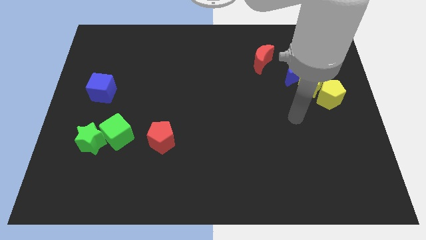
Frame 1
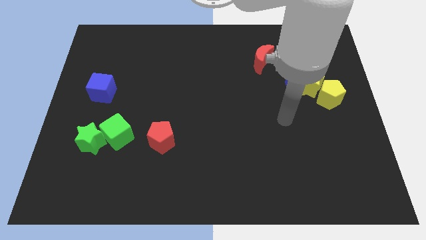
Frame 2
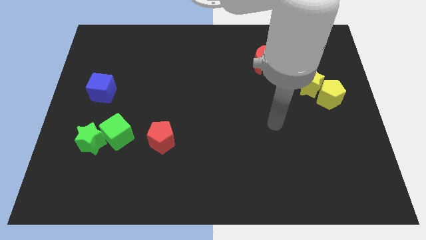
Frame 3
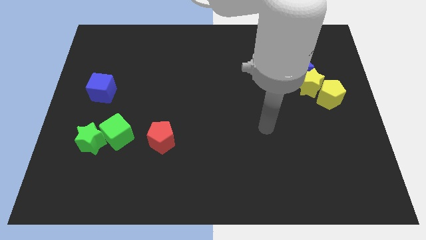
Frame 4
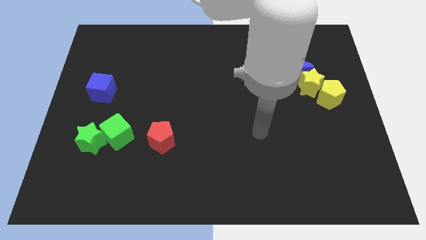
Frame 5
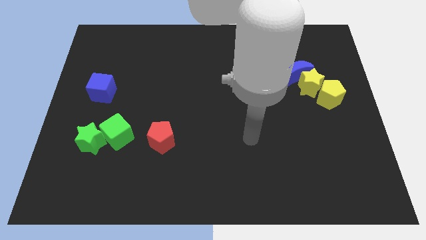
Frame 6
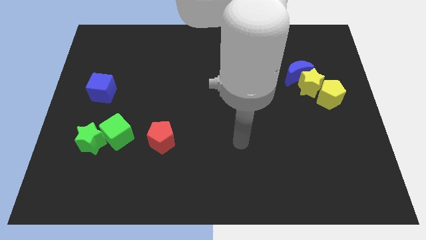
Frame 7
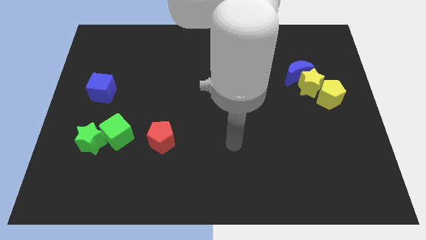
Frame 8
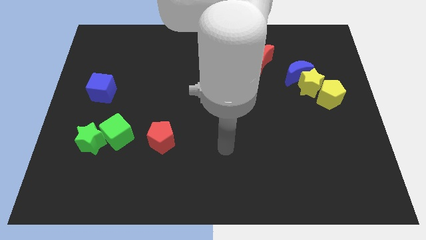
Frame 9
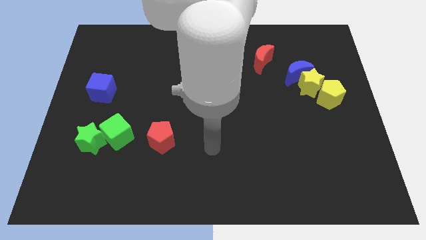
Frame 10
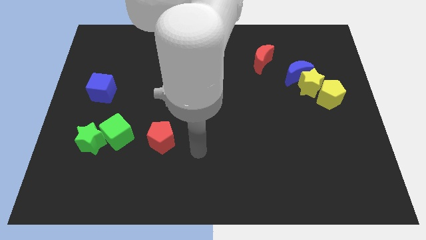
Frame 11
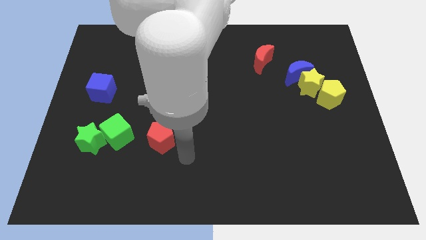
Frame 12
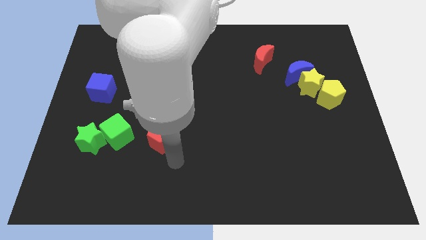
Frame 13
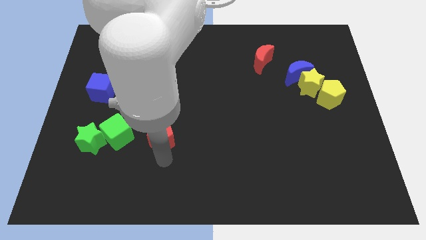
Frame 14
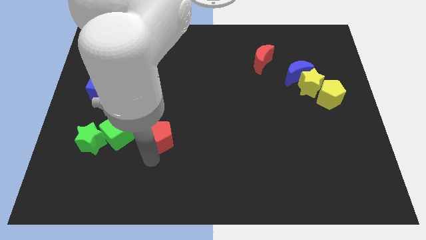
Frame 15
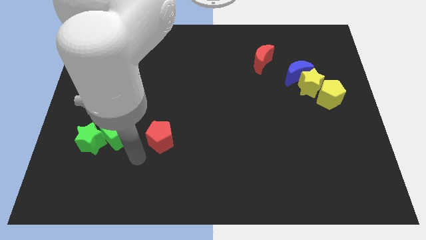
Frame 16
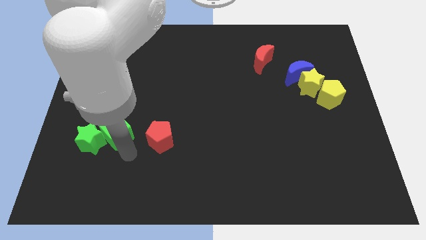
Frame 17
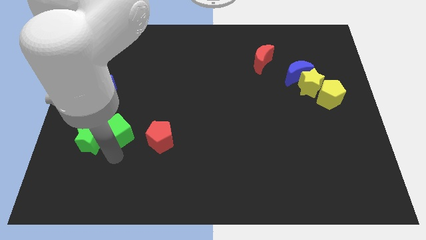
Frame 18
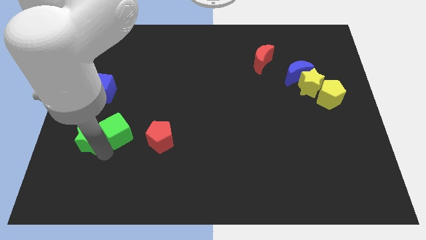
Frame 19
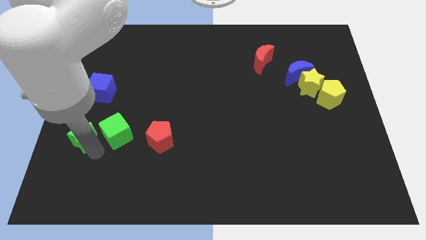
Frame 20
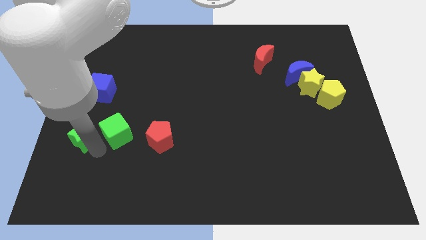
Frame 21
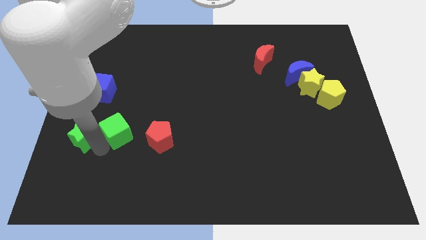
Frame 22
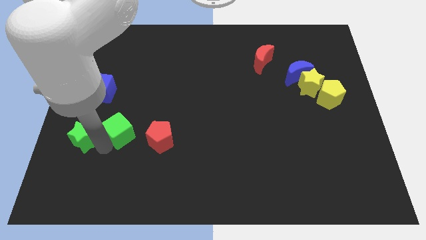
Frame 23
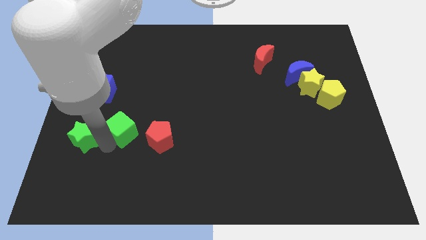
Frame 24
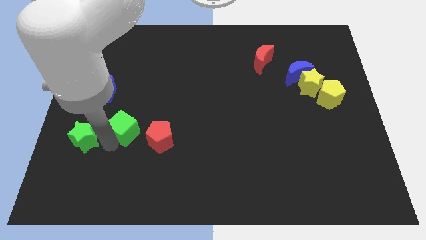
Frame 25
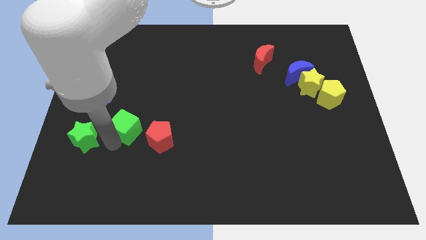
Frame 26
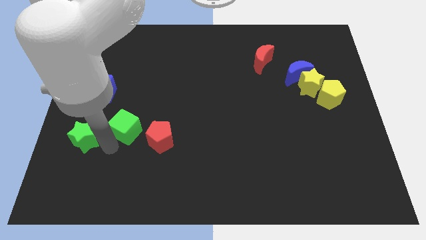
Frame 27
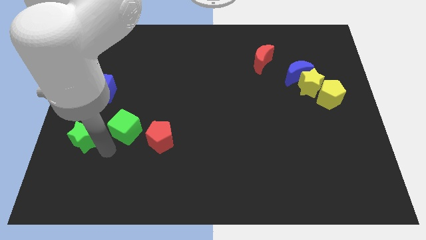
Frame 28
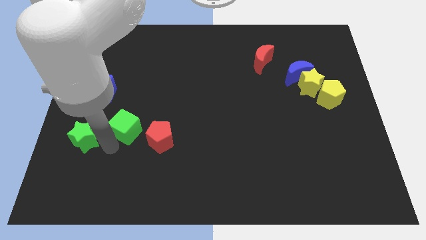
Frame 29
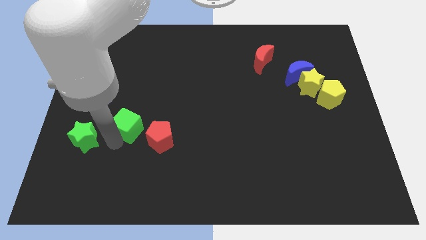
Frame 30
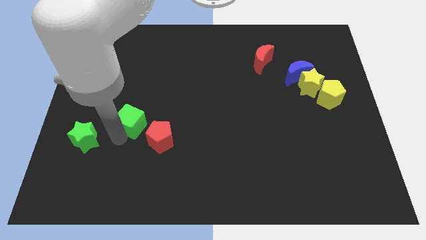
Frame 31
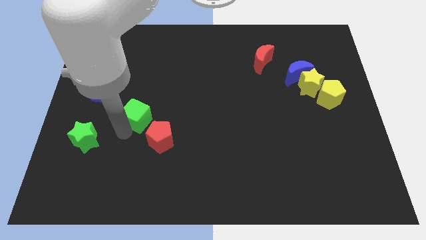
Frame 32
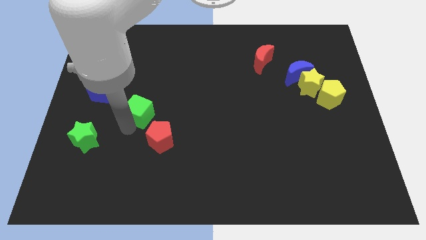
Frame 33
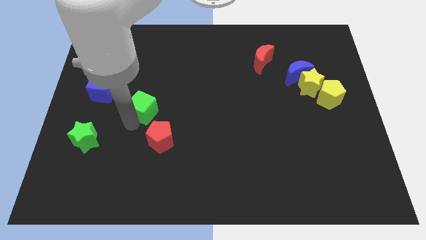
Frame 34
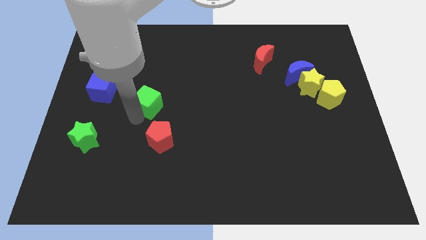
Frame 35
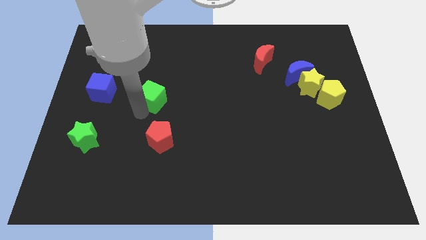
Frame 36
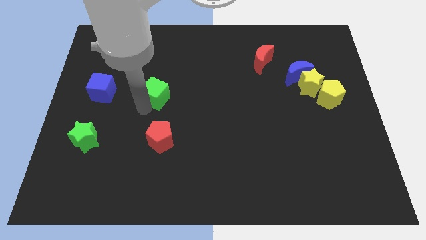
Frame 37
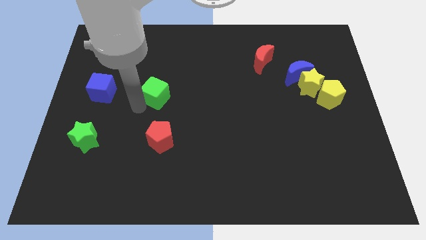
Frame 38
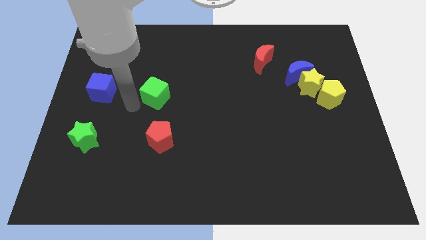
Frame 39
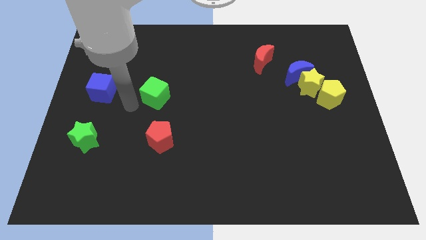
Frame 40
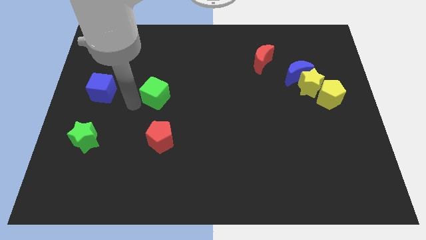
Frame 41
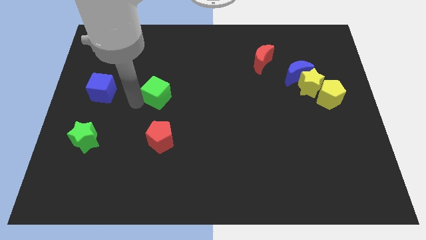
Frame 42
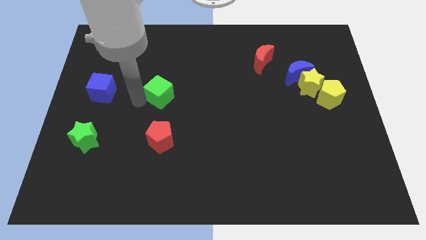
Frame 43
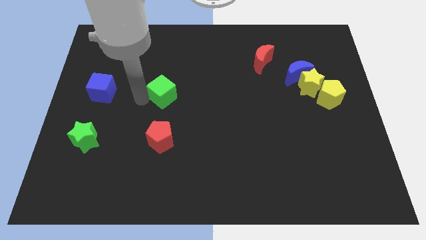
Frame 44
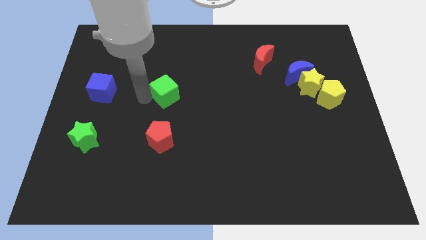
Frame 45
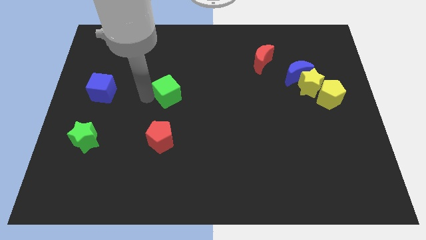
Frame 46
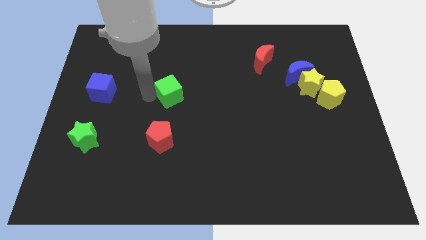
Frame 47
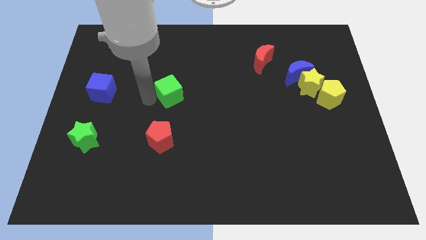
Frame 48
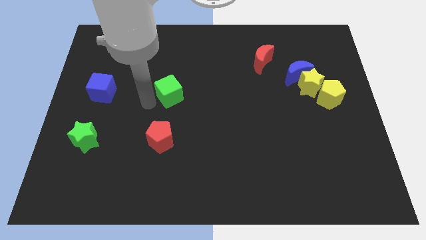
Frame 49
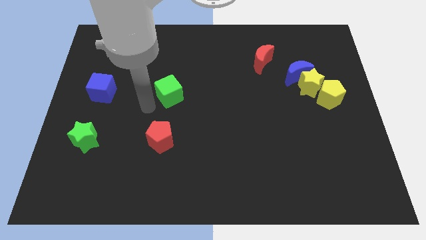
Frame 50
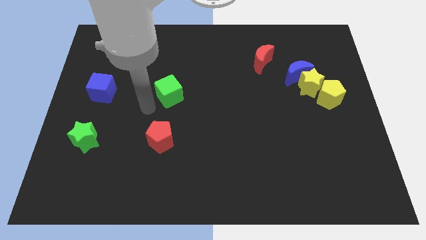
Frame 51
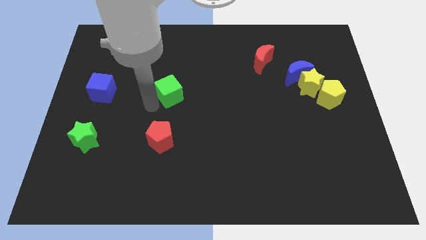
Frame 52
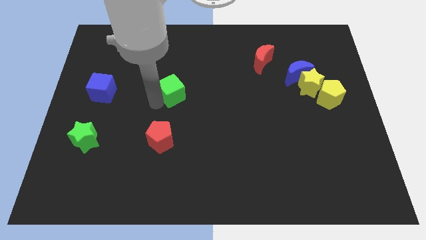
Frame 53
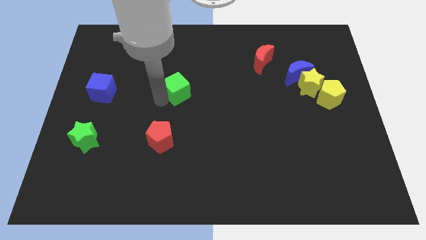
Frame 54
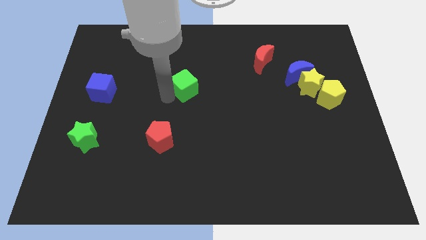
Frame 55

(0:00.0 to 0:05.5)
move the green cube up and then right

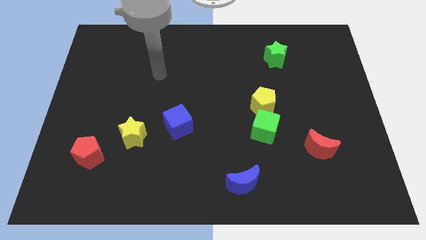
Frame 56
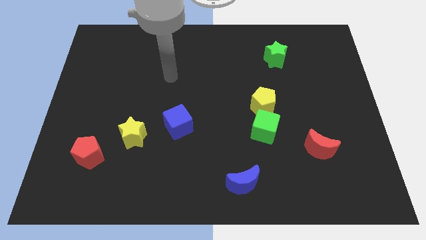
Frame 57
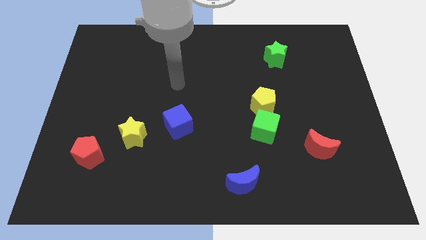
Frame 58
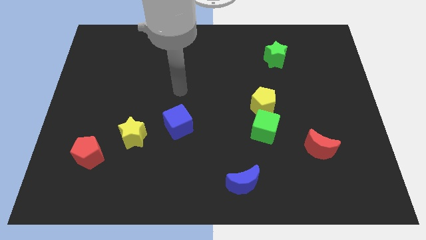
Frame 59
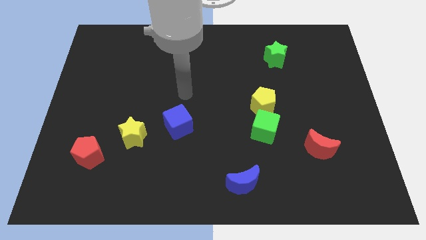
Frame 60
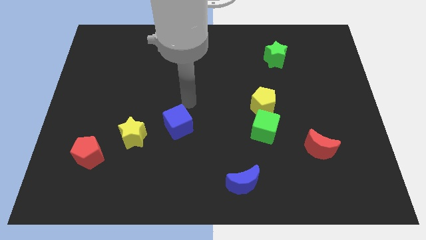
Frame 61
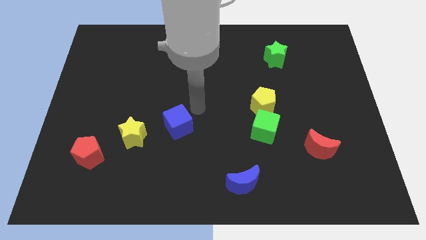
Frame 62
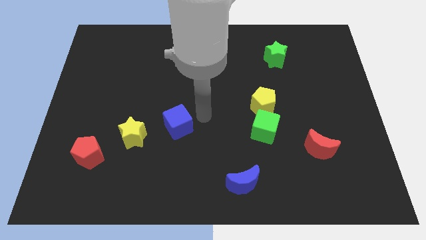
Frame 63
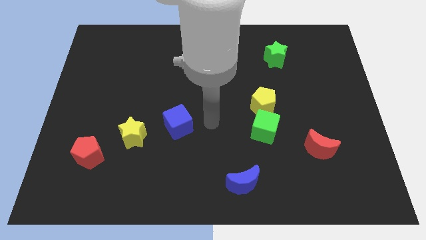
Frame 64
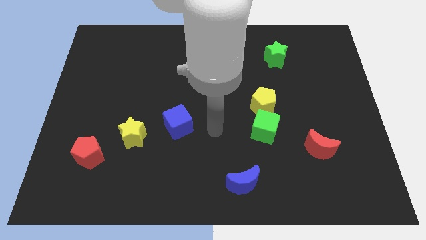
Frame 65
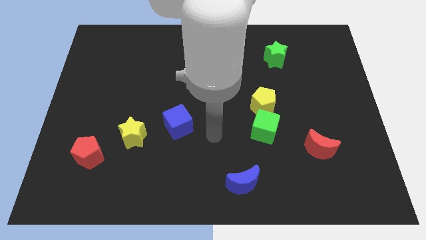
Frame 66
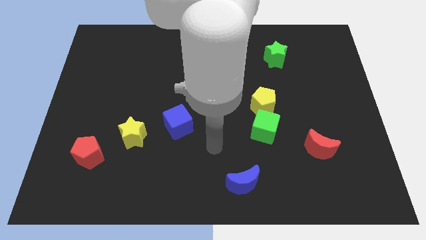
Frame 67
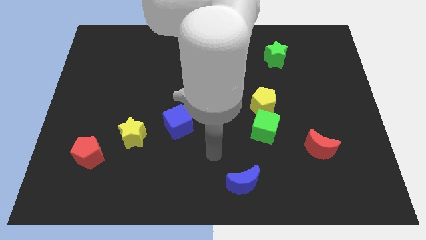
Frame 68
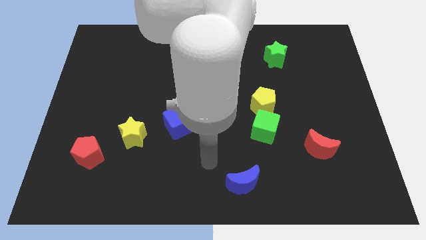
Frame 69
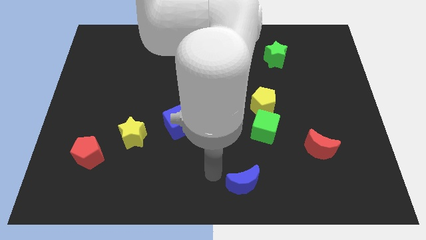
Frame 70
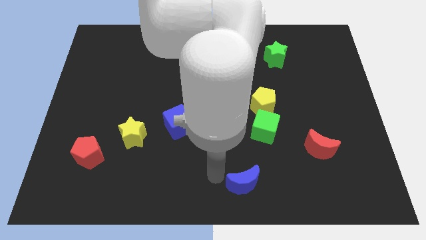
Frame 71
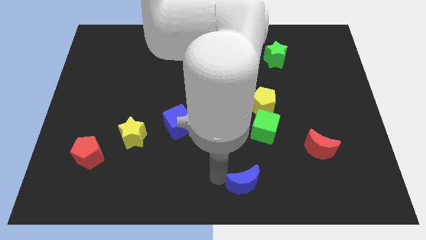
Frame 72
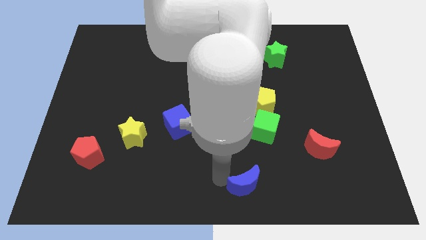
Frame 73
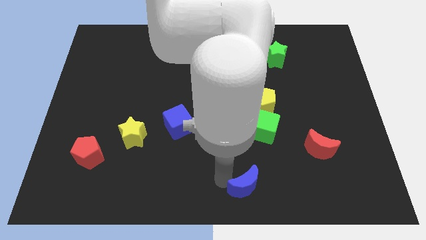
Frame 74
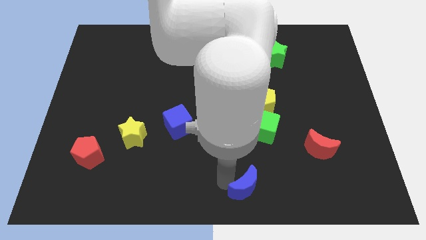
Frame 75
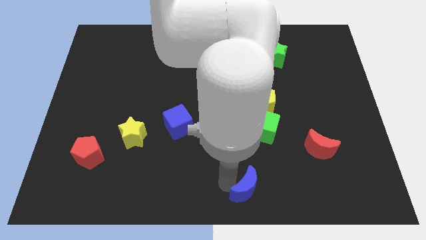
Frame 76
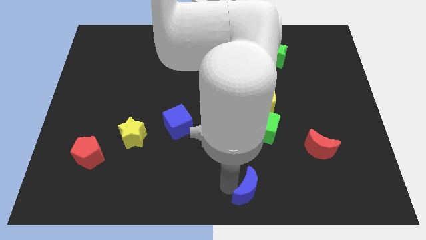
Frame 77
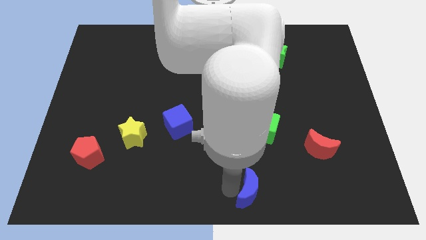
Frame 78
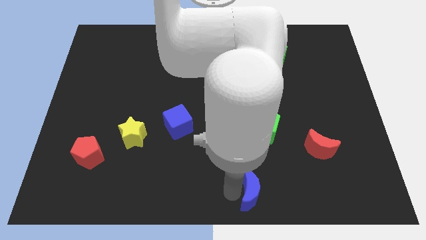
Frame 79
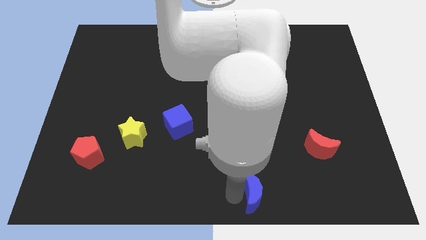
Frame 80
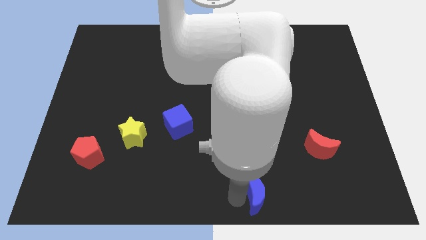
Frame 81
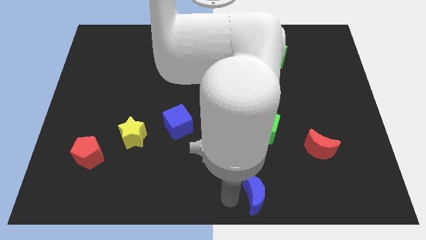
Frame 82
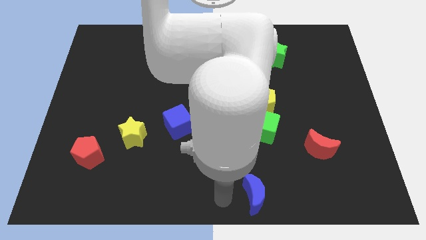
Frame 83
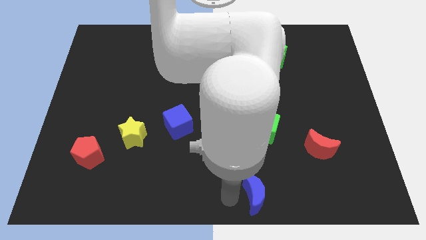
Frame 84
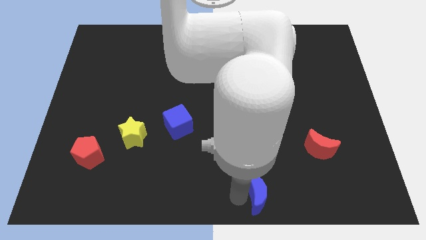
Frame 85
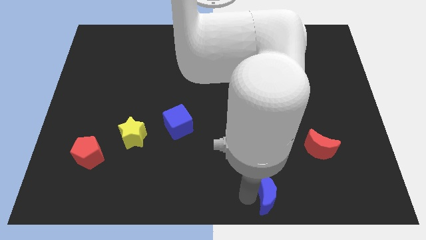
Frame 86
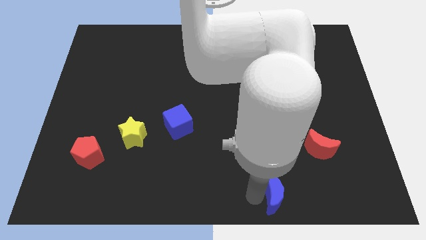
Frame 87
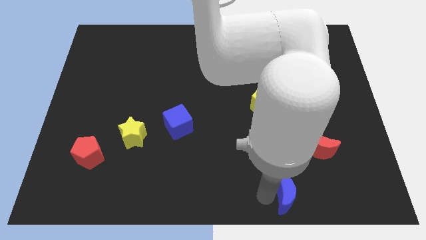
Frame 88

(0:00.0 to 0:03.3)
slide the blue moon somewhat right
